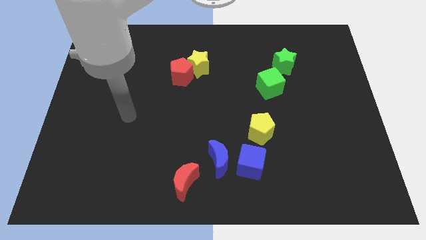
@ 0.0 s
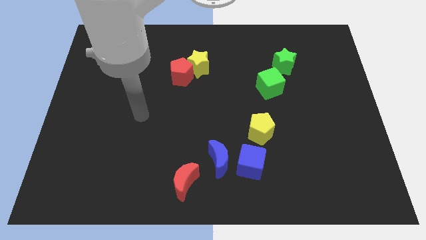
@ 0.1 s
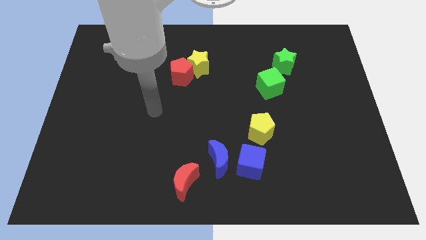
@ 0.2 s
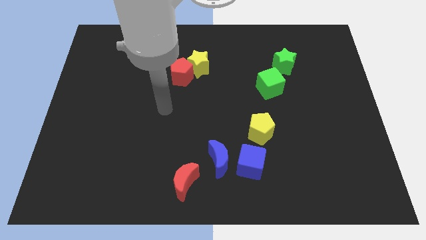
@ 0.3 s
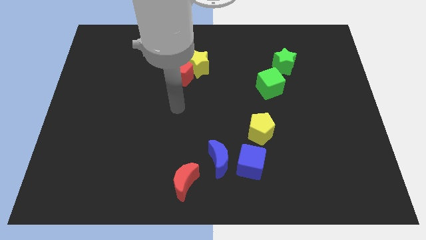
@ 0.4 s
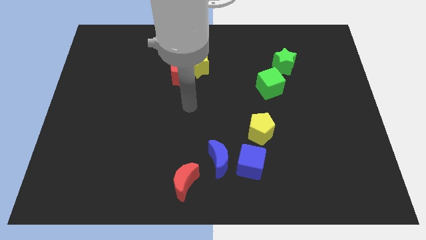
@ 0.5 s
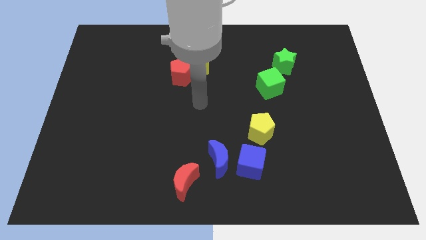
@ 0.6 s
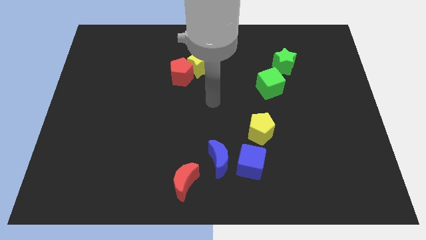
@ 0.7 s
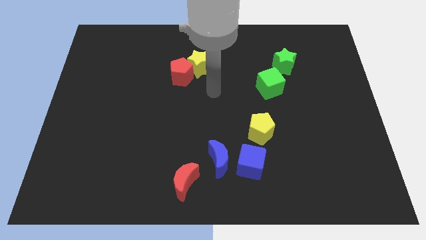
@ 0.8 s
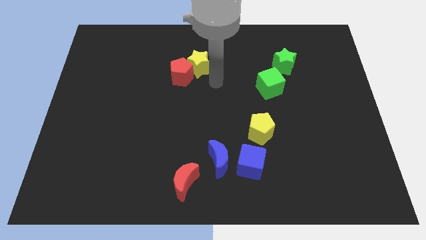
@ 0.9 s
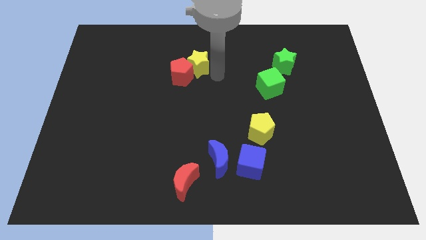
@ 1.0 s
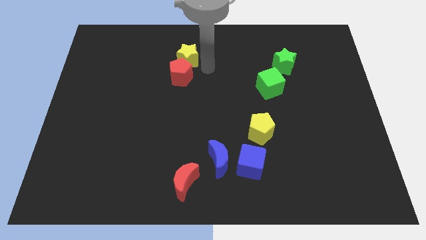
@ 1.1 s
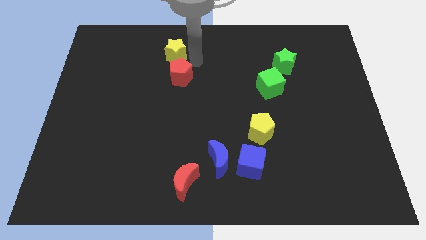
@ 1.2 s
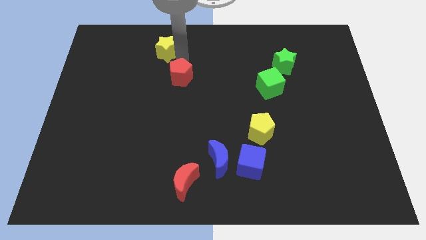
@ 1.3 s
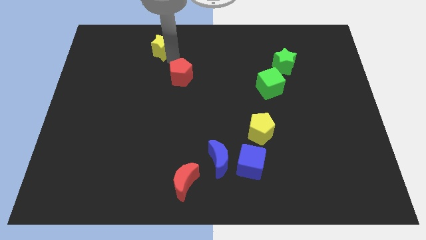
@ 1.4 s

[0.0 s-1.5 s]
move the red pentagon away from the yellow star

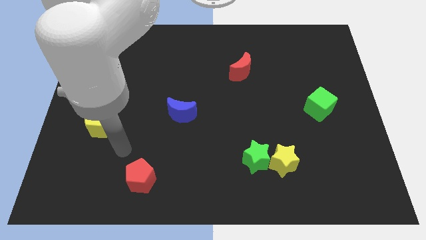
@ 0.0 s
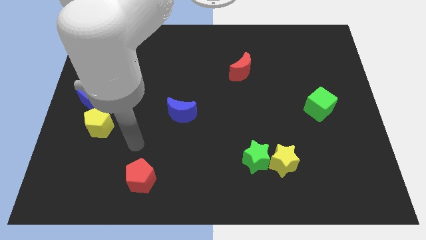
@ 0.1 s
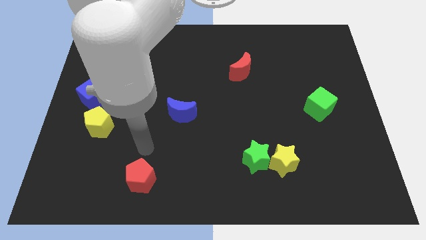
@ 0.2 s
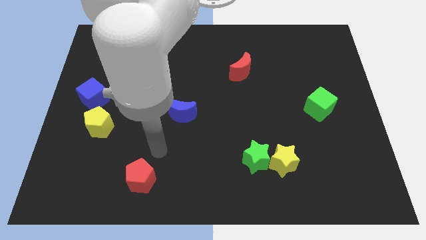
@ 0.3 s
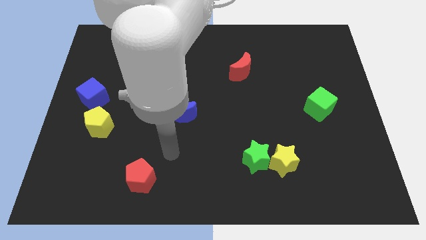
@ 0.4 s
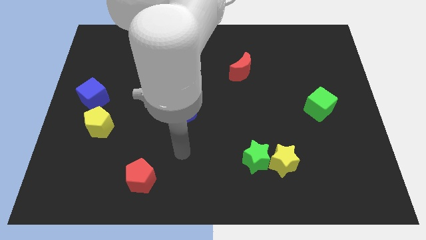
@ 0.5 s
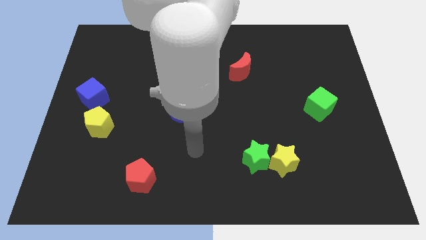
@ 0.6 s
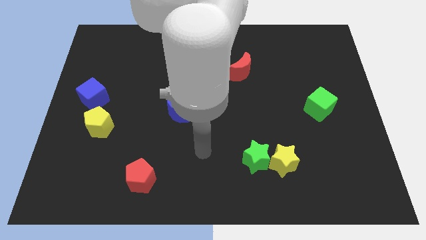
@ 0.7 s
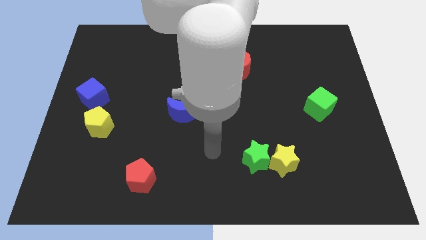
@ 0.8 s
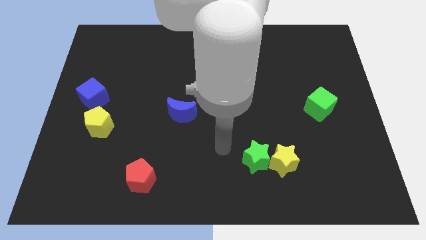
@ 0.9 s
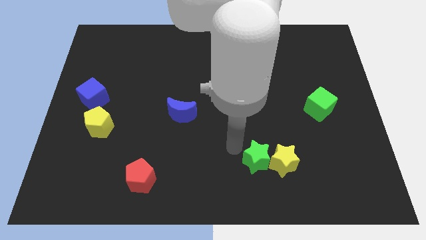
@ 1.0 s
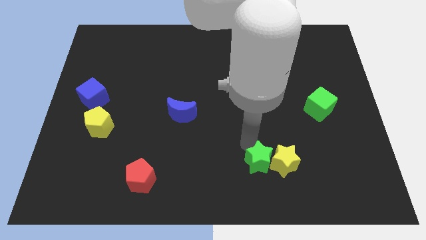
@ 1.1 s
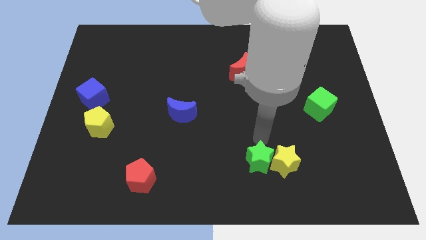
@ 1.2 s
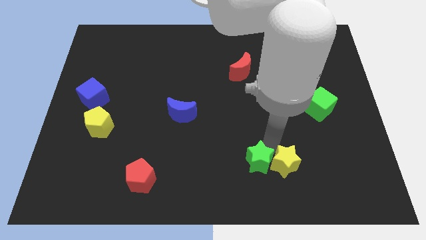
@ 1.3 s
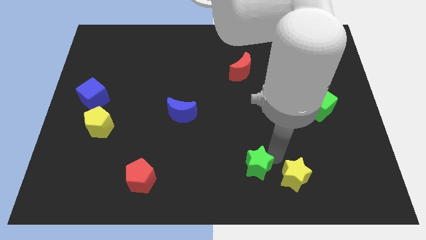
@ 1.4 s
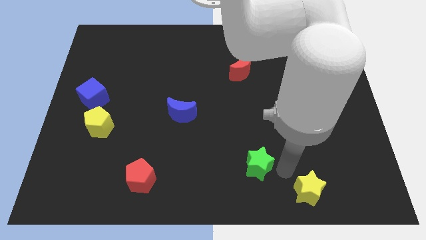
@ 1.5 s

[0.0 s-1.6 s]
move the green star away from the yellow star

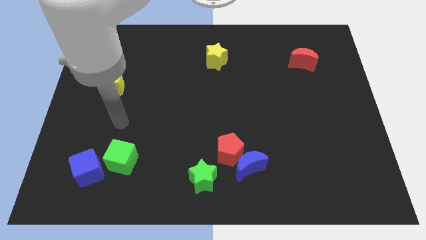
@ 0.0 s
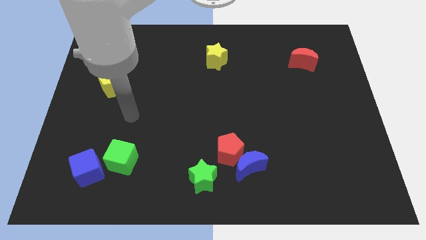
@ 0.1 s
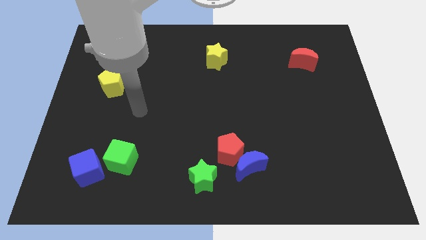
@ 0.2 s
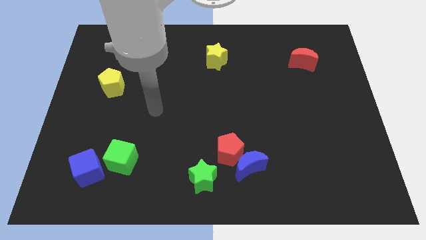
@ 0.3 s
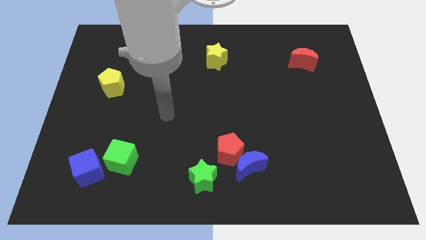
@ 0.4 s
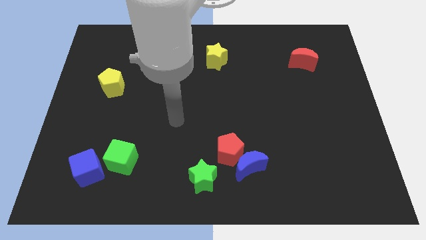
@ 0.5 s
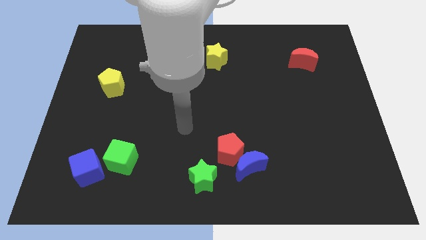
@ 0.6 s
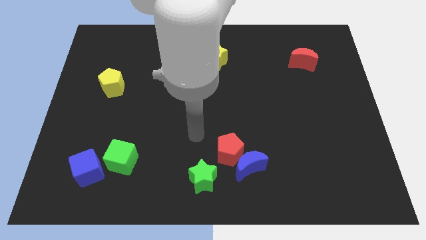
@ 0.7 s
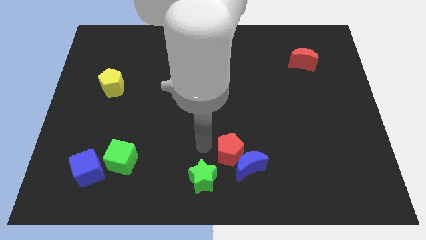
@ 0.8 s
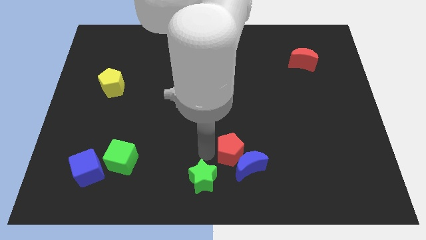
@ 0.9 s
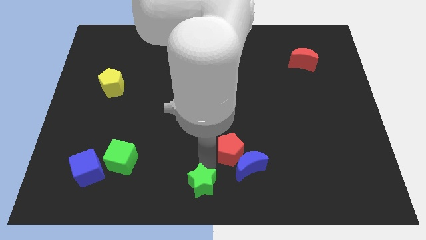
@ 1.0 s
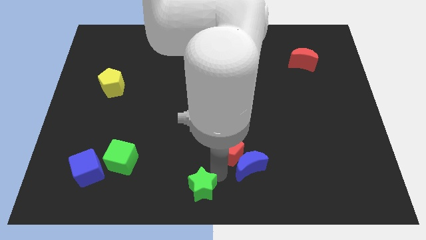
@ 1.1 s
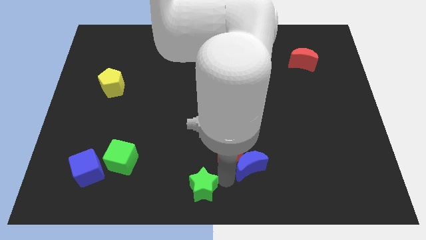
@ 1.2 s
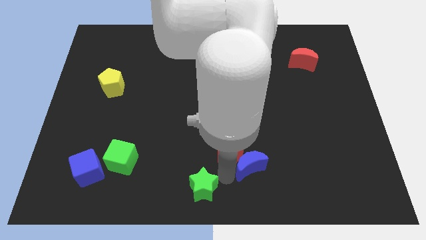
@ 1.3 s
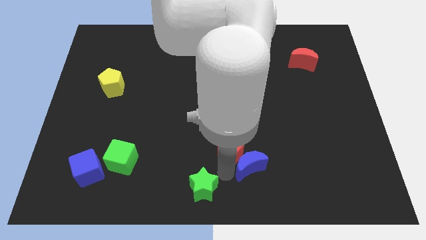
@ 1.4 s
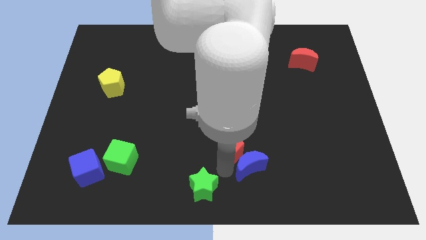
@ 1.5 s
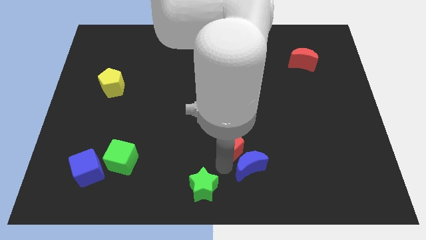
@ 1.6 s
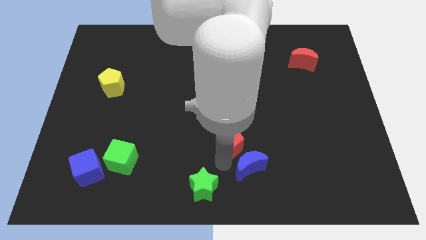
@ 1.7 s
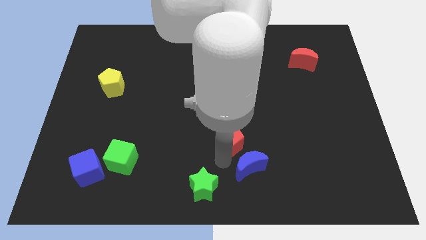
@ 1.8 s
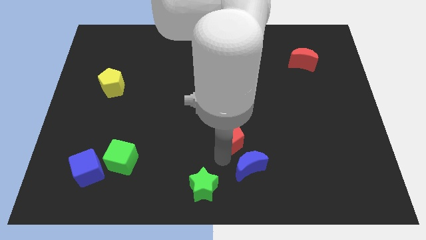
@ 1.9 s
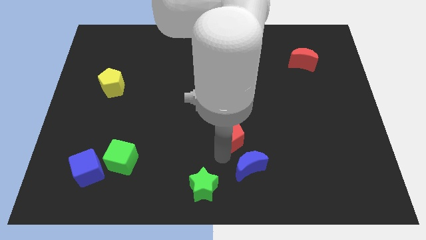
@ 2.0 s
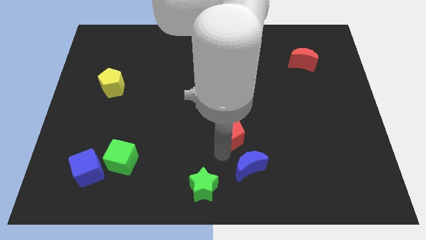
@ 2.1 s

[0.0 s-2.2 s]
move the red pentagon away from the blue moon and green star

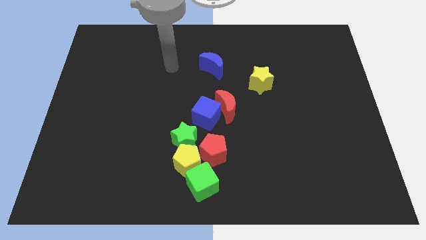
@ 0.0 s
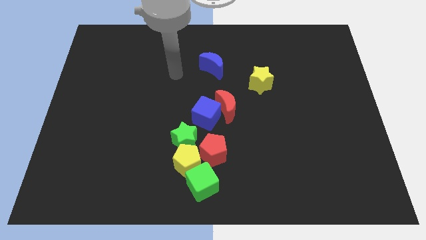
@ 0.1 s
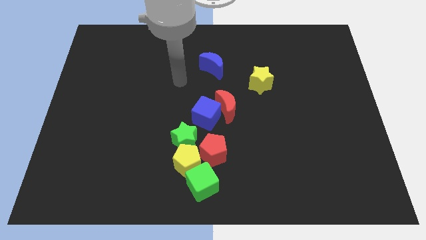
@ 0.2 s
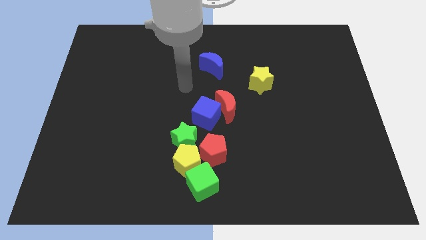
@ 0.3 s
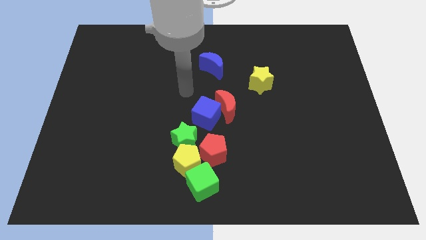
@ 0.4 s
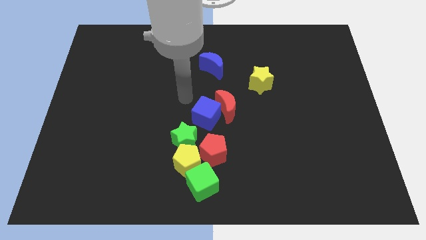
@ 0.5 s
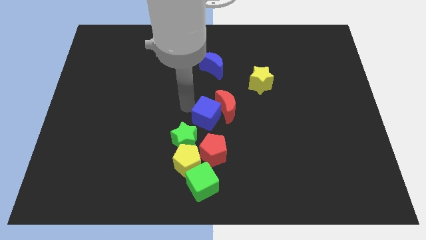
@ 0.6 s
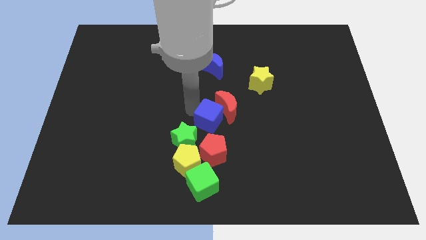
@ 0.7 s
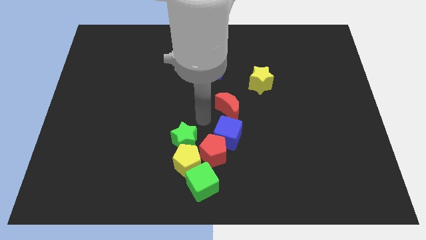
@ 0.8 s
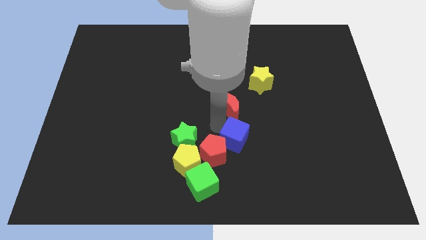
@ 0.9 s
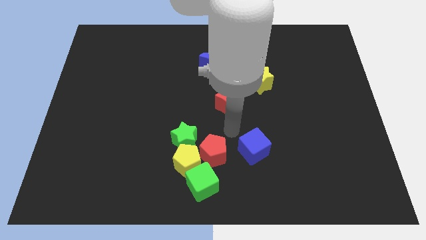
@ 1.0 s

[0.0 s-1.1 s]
separate the red moon from the blue cube

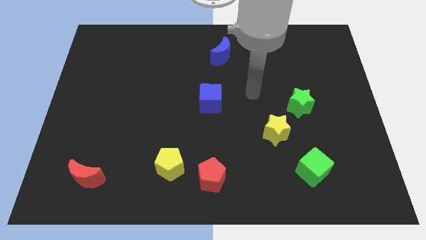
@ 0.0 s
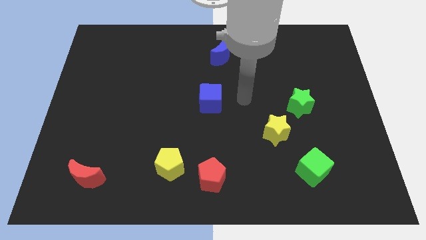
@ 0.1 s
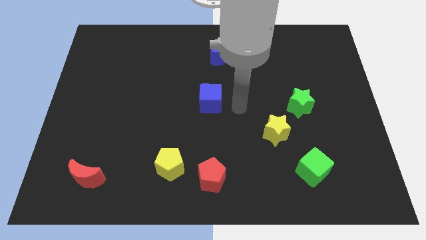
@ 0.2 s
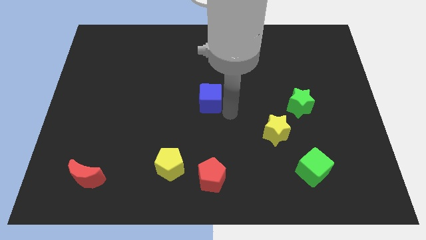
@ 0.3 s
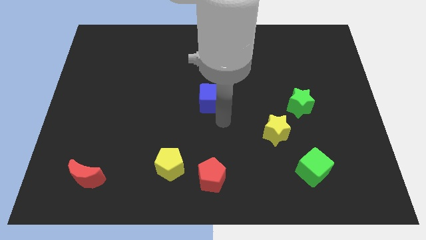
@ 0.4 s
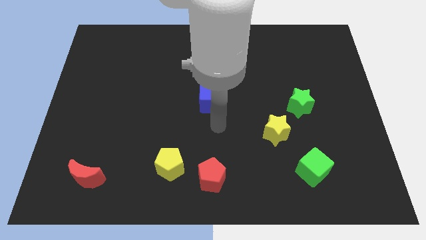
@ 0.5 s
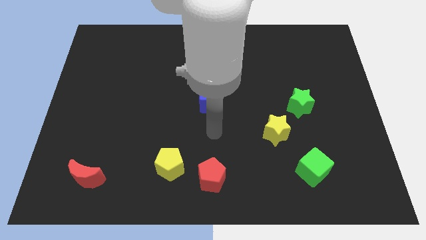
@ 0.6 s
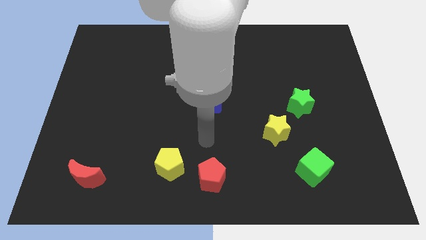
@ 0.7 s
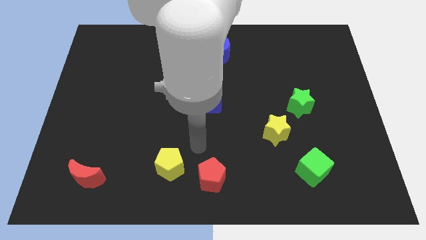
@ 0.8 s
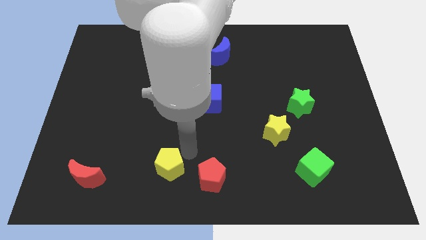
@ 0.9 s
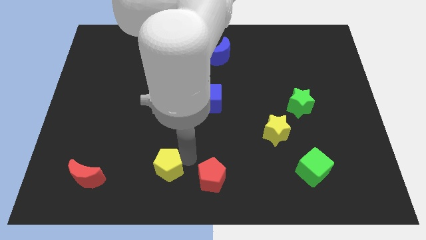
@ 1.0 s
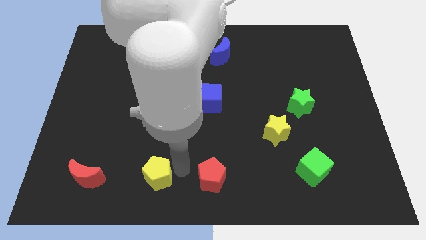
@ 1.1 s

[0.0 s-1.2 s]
separate the red pentagon from the yellow pentagon

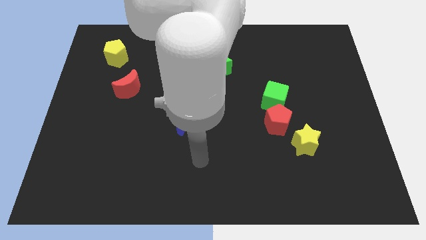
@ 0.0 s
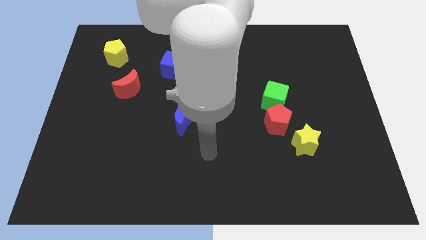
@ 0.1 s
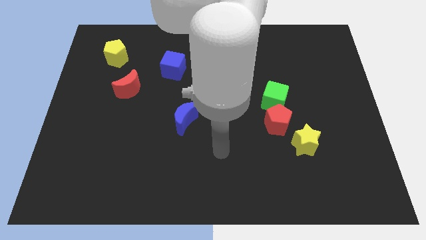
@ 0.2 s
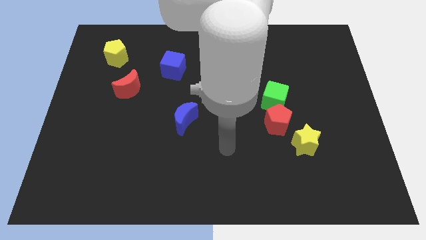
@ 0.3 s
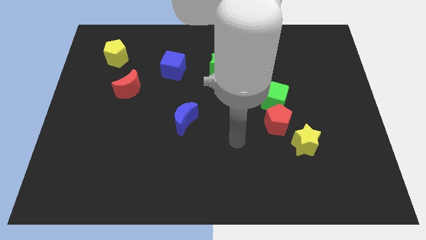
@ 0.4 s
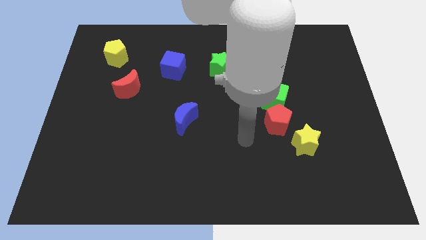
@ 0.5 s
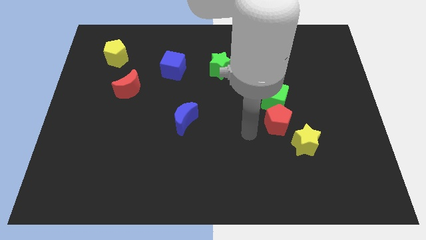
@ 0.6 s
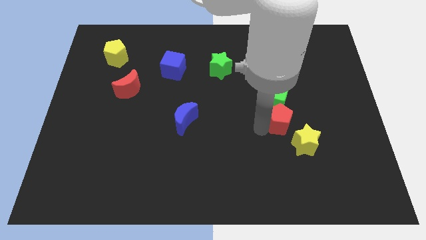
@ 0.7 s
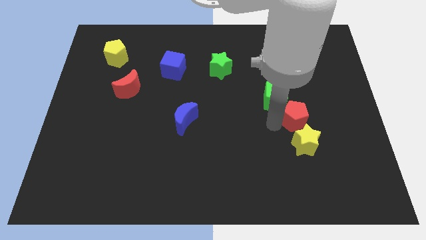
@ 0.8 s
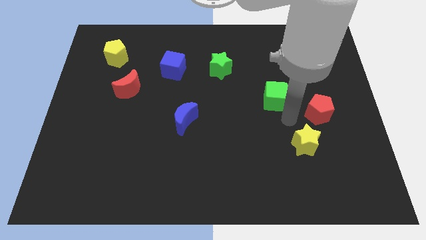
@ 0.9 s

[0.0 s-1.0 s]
separate the green cube from the red pentagon

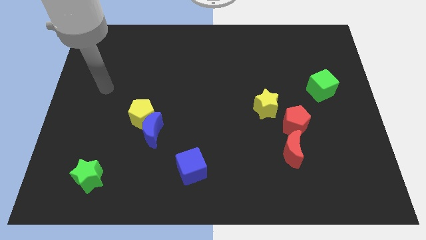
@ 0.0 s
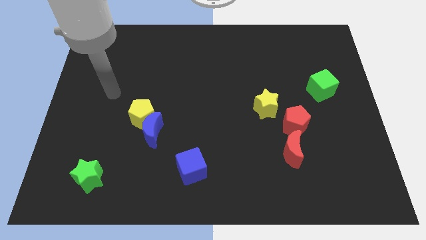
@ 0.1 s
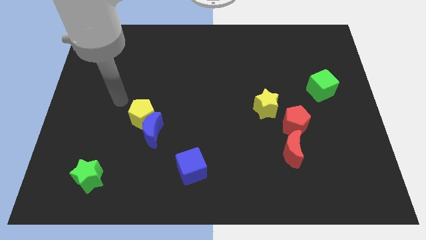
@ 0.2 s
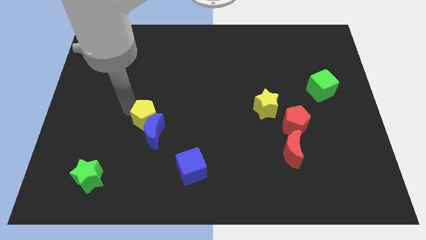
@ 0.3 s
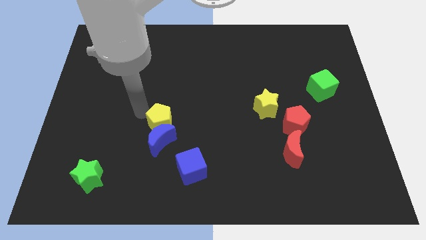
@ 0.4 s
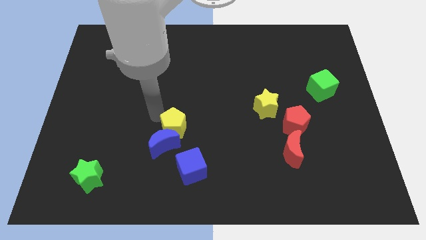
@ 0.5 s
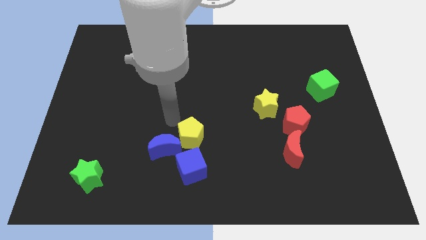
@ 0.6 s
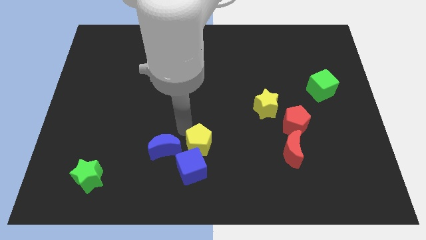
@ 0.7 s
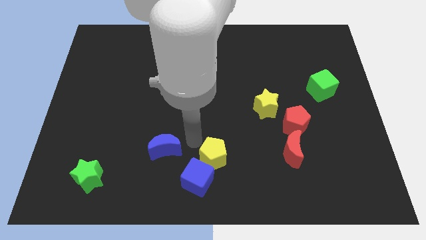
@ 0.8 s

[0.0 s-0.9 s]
move the blue moon away from the yellow pentagon
